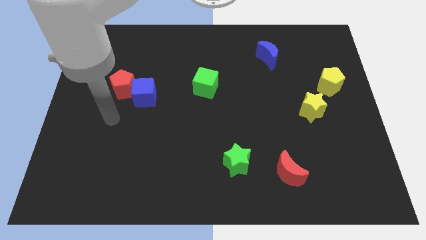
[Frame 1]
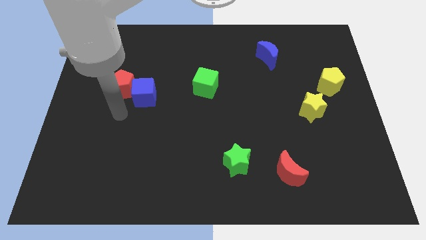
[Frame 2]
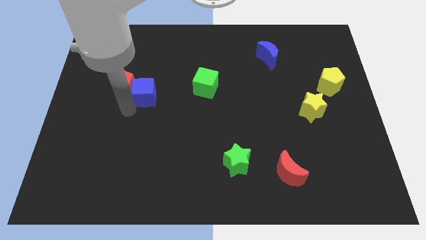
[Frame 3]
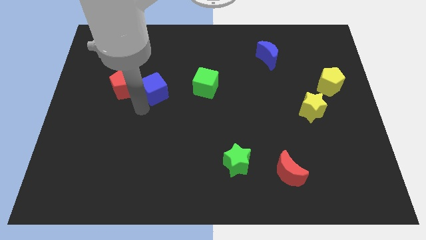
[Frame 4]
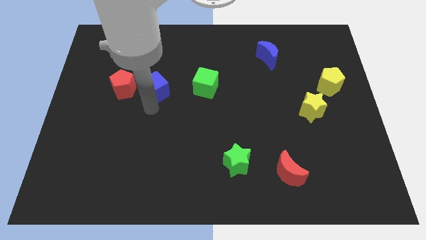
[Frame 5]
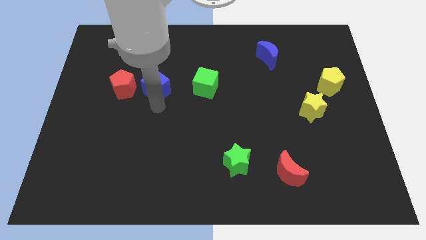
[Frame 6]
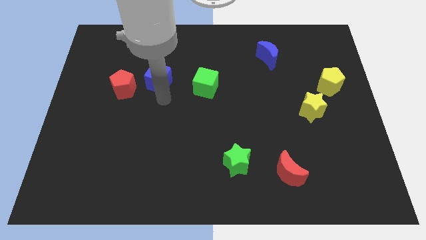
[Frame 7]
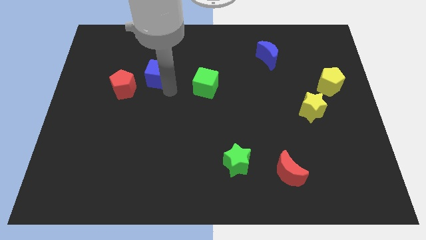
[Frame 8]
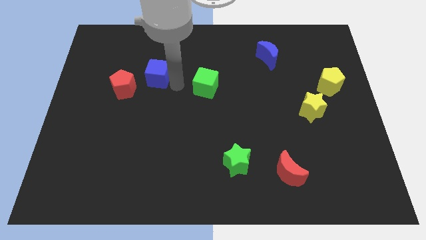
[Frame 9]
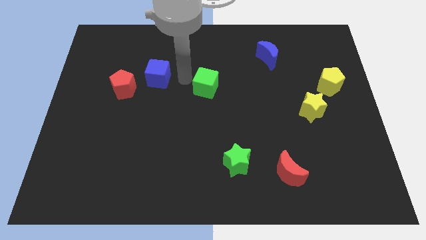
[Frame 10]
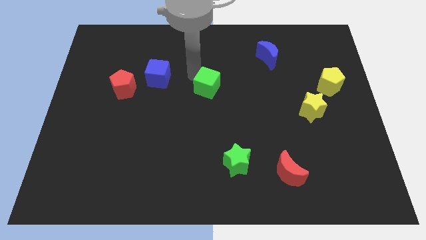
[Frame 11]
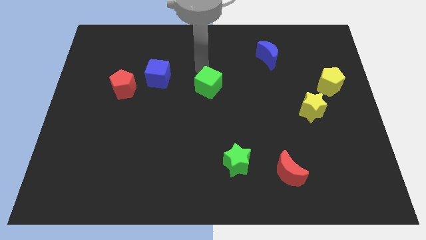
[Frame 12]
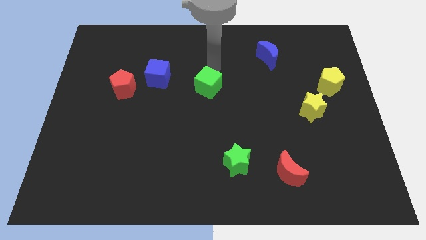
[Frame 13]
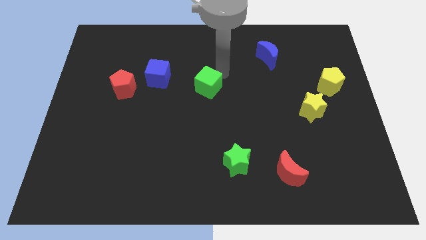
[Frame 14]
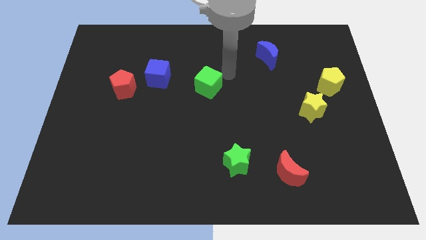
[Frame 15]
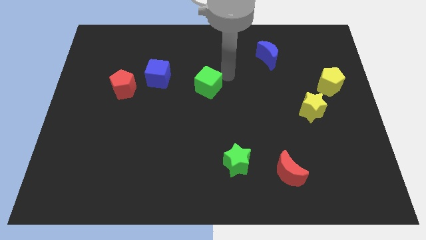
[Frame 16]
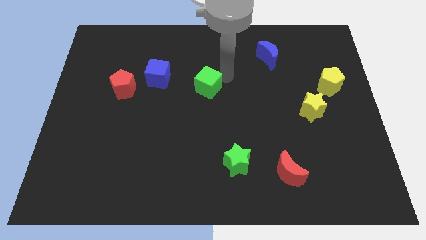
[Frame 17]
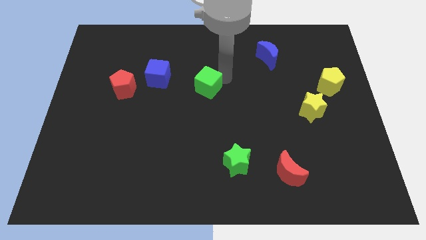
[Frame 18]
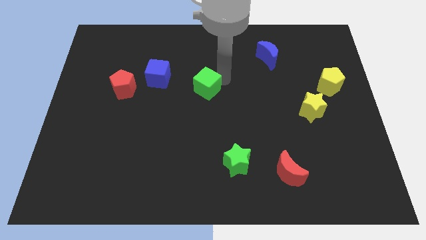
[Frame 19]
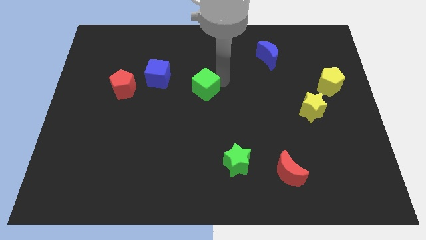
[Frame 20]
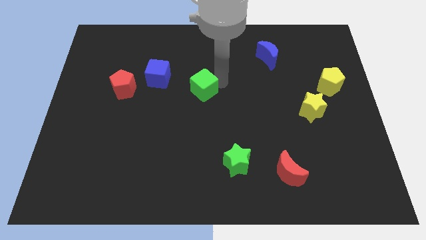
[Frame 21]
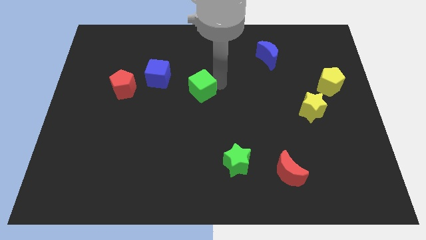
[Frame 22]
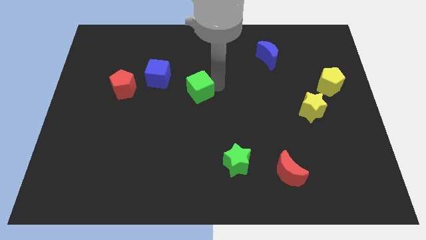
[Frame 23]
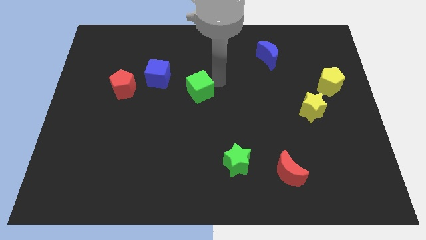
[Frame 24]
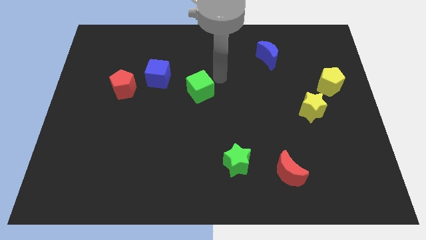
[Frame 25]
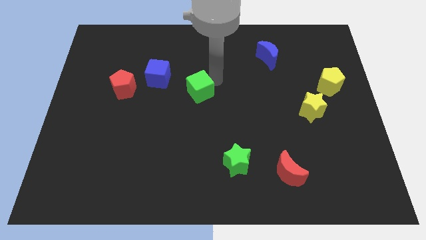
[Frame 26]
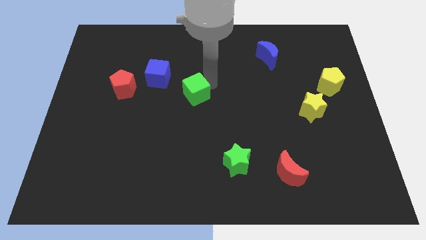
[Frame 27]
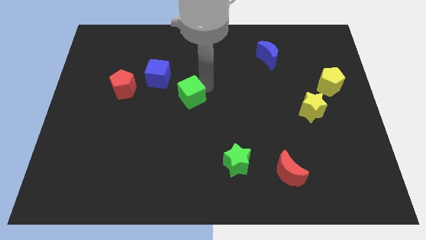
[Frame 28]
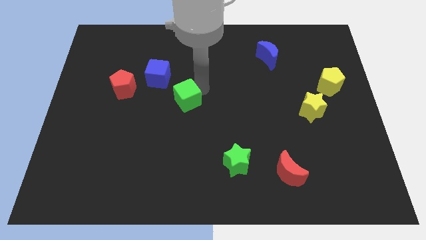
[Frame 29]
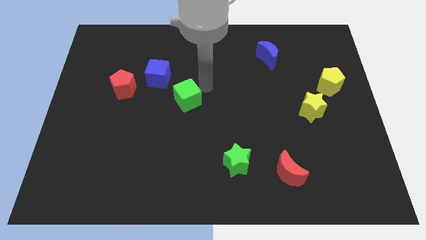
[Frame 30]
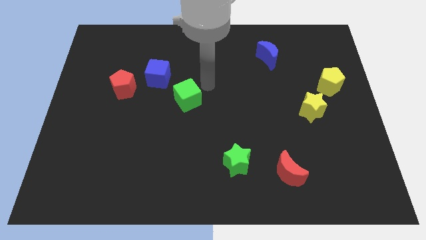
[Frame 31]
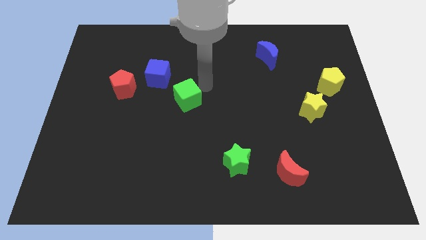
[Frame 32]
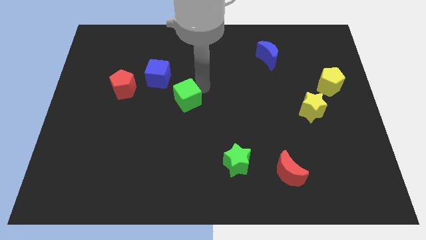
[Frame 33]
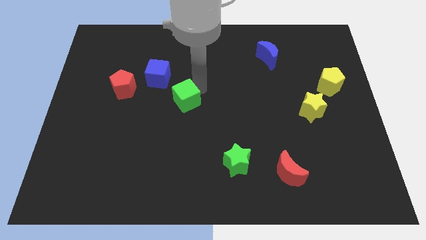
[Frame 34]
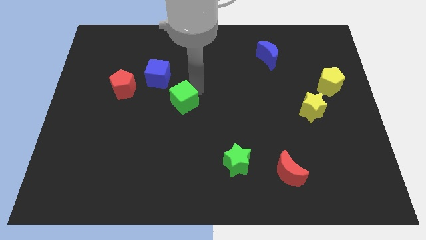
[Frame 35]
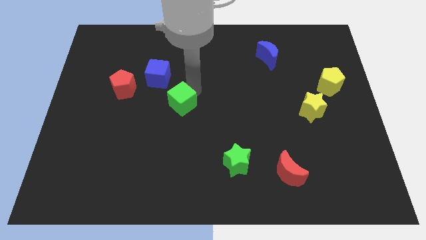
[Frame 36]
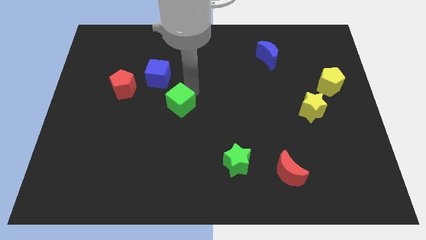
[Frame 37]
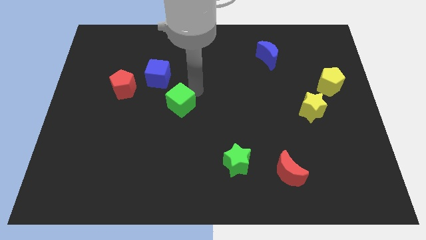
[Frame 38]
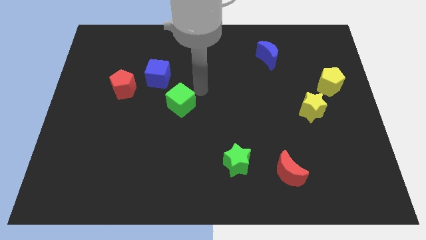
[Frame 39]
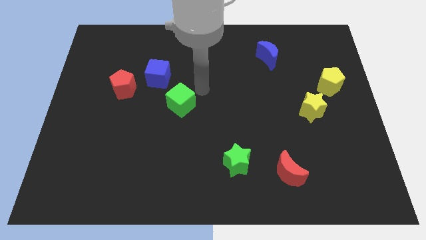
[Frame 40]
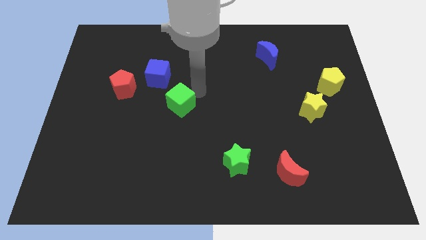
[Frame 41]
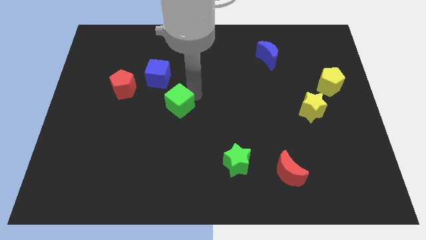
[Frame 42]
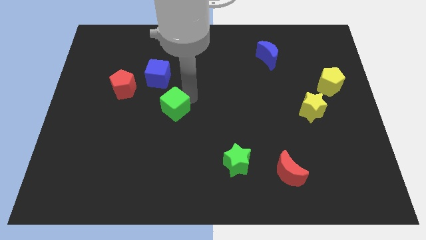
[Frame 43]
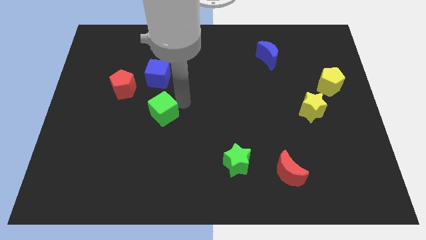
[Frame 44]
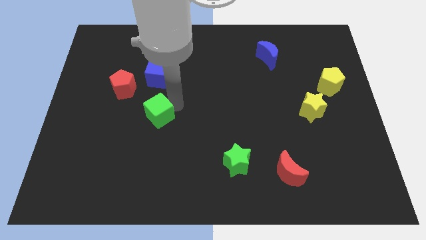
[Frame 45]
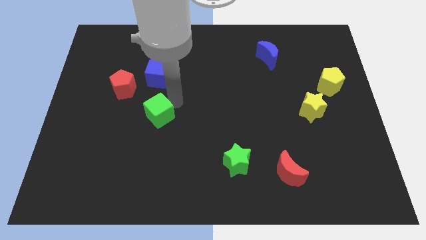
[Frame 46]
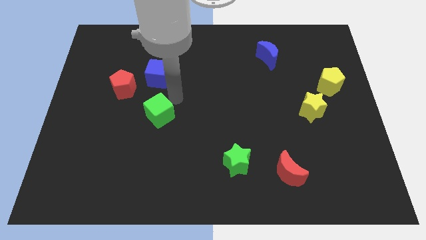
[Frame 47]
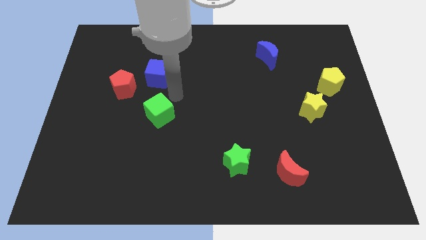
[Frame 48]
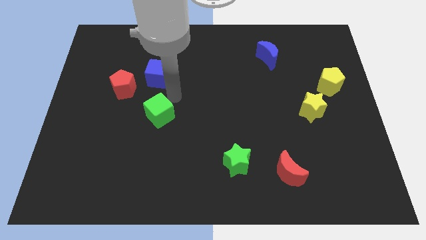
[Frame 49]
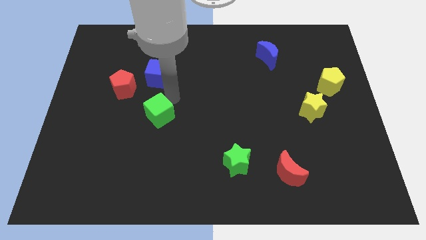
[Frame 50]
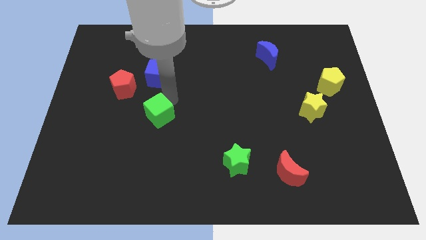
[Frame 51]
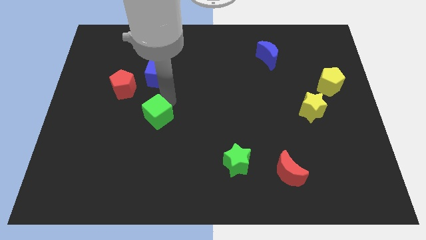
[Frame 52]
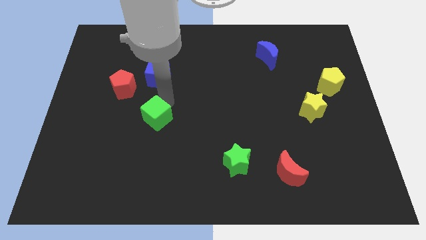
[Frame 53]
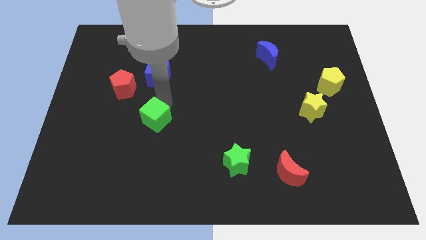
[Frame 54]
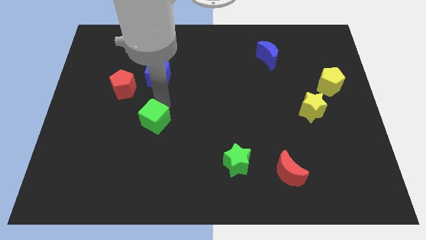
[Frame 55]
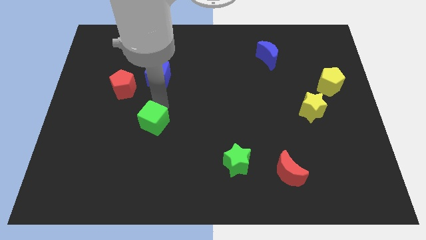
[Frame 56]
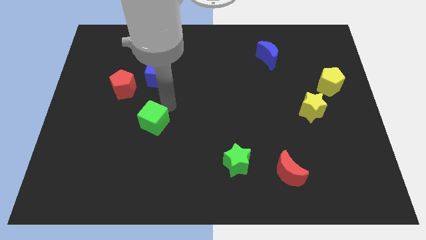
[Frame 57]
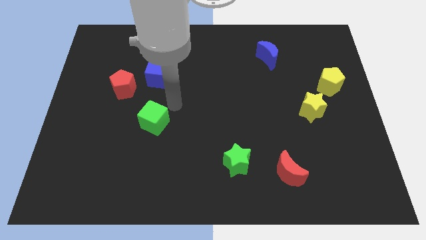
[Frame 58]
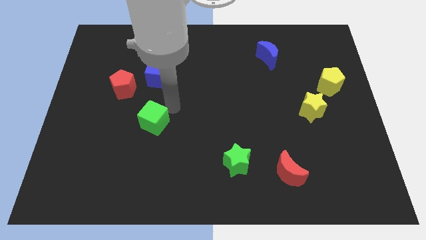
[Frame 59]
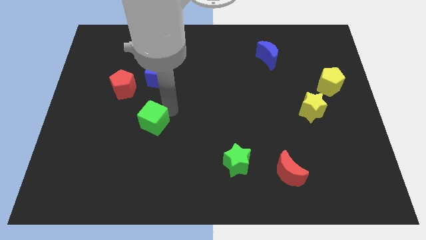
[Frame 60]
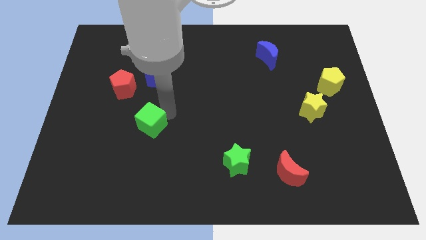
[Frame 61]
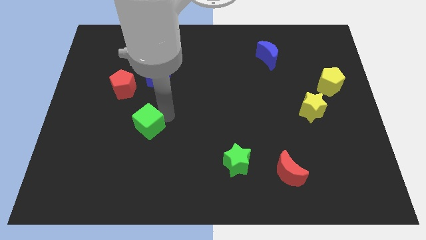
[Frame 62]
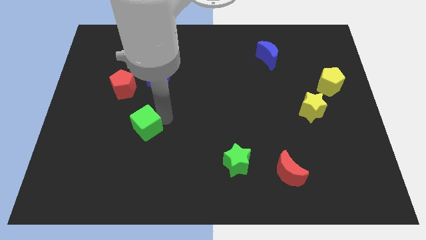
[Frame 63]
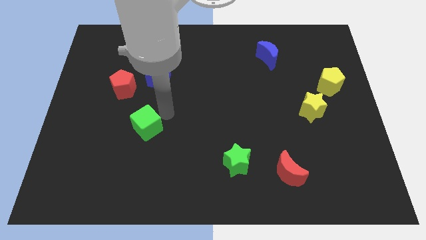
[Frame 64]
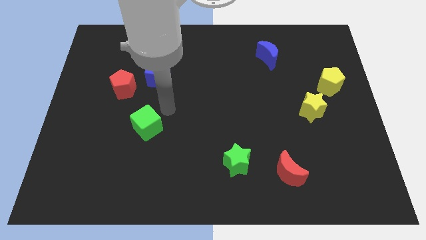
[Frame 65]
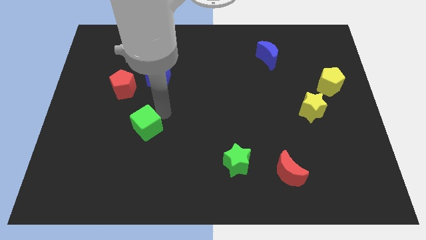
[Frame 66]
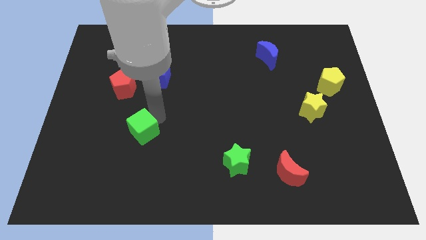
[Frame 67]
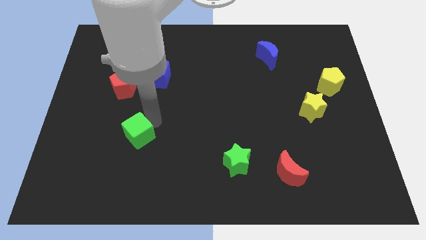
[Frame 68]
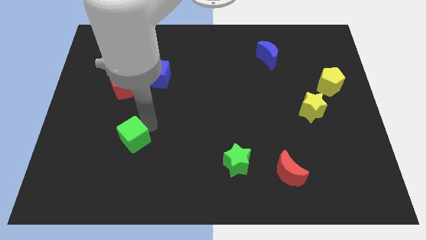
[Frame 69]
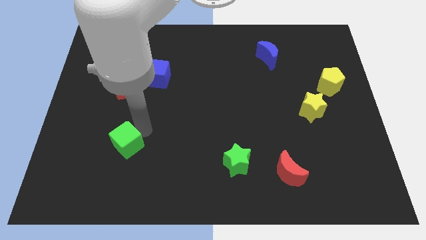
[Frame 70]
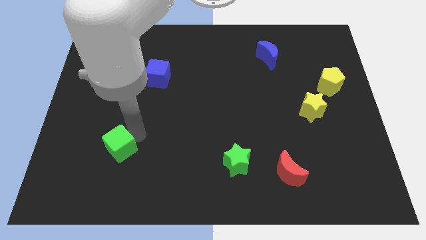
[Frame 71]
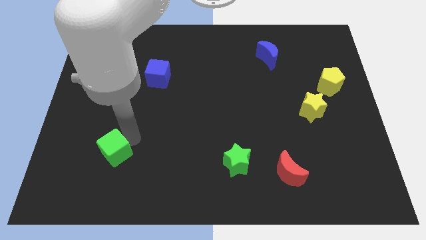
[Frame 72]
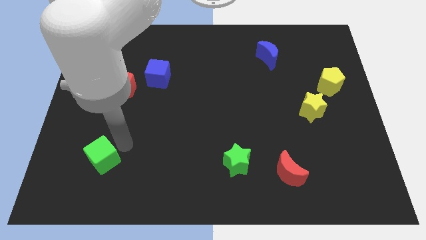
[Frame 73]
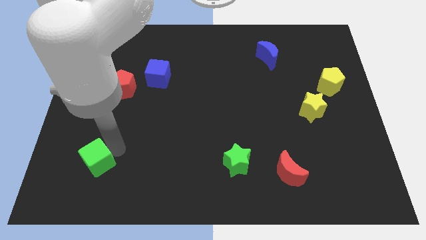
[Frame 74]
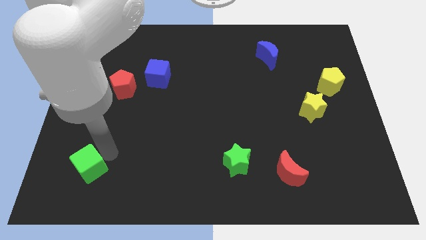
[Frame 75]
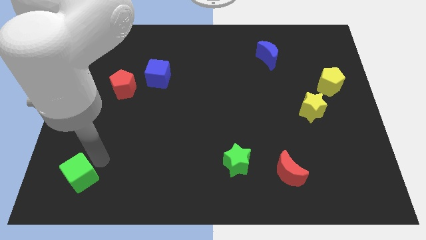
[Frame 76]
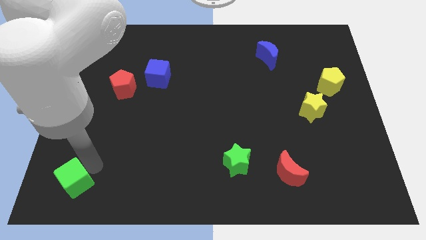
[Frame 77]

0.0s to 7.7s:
push the green cube to the lower left corner
